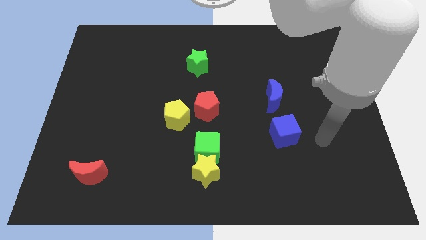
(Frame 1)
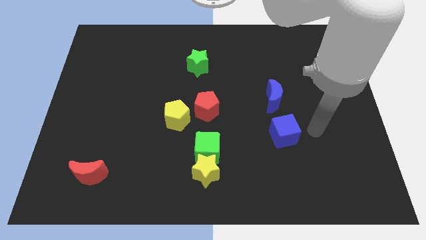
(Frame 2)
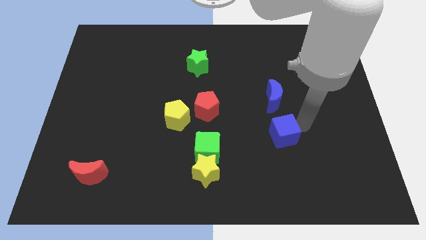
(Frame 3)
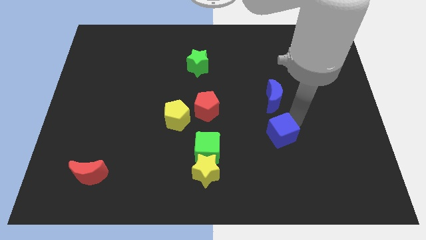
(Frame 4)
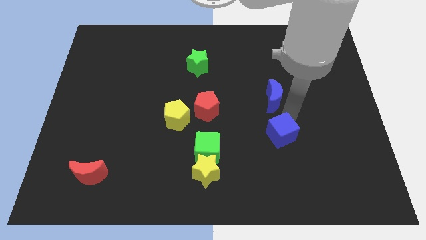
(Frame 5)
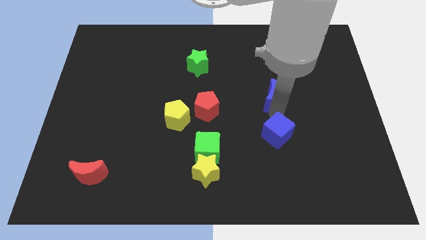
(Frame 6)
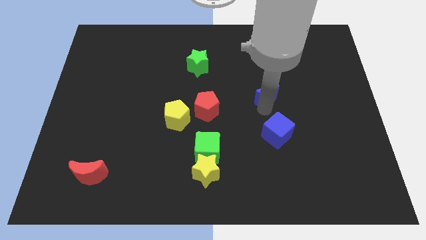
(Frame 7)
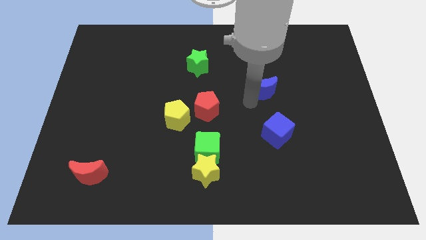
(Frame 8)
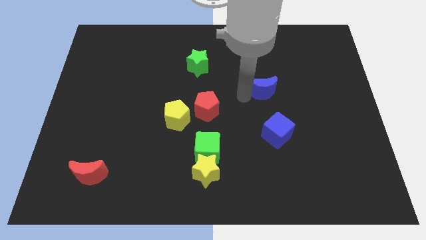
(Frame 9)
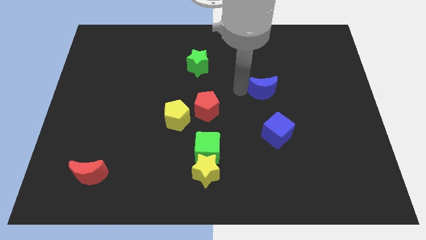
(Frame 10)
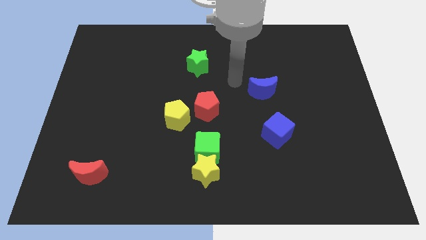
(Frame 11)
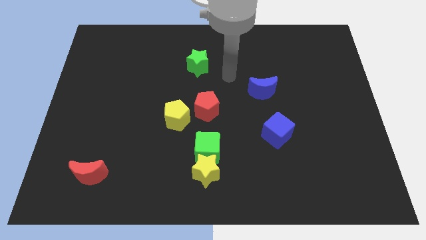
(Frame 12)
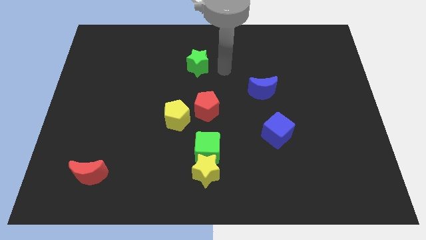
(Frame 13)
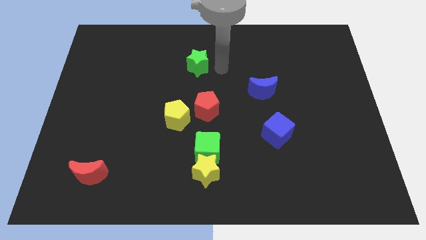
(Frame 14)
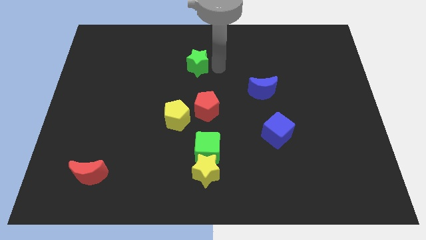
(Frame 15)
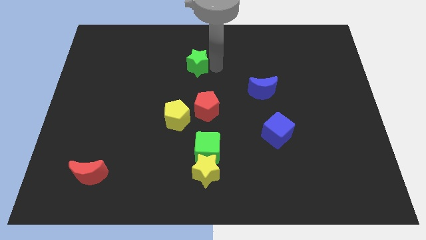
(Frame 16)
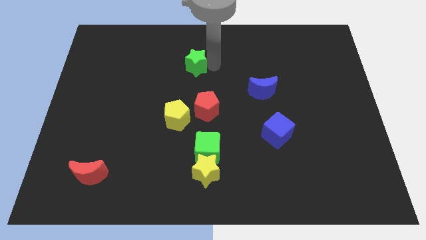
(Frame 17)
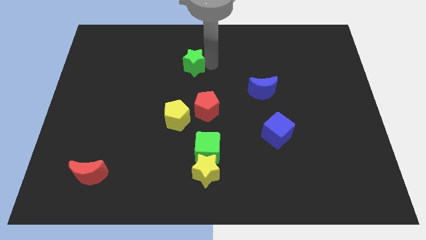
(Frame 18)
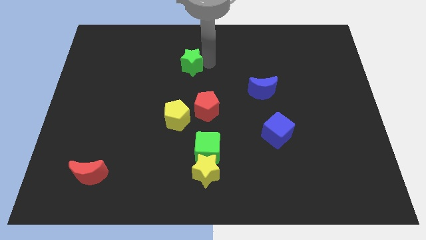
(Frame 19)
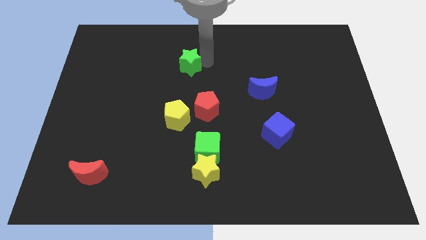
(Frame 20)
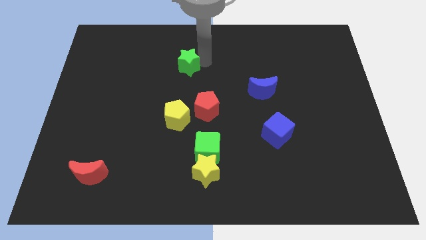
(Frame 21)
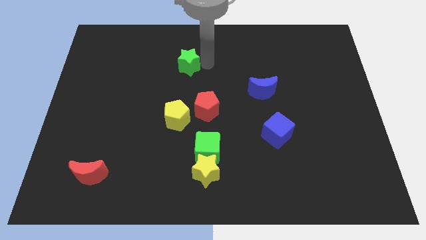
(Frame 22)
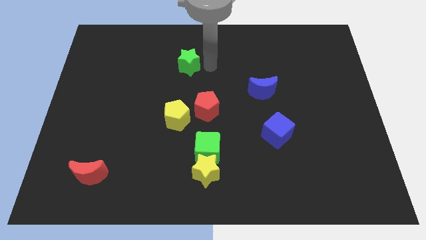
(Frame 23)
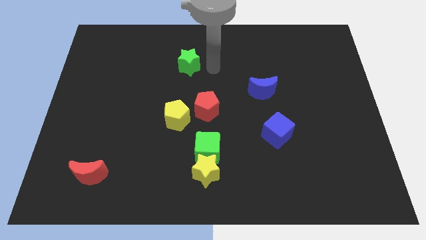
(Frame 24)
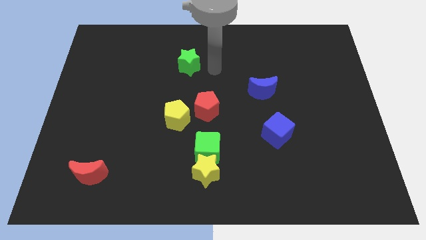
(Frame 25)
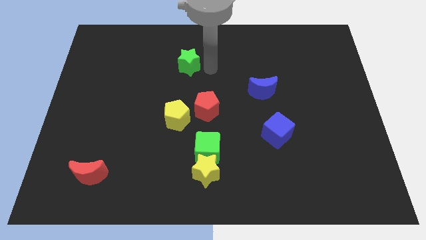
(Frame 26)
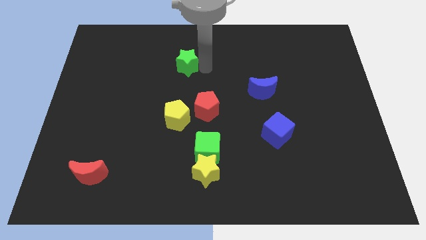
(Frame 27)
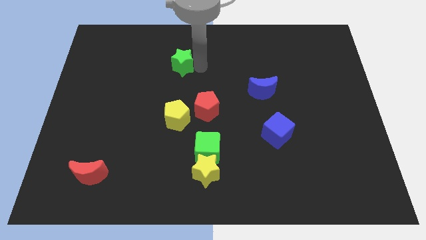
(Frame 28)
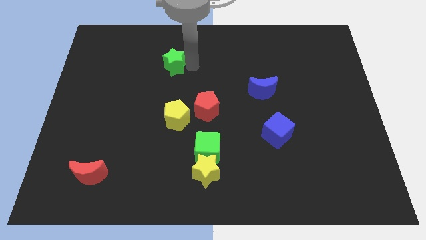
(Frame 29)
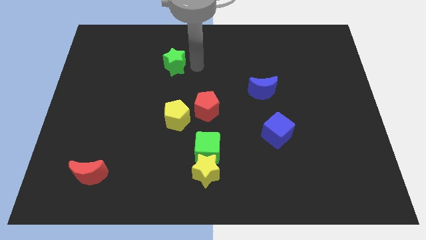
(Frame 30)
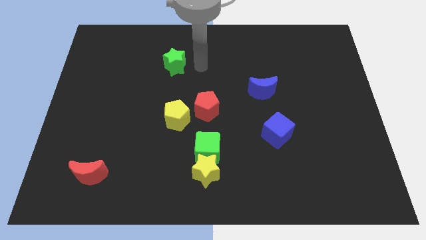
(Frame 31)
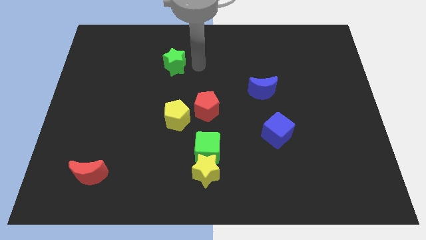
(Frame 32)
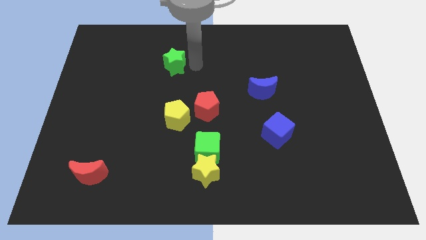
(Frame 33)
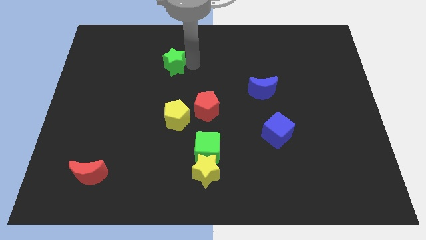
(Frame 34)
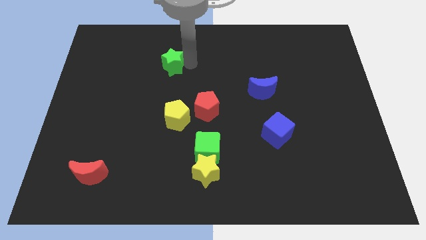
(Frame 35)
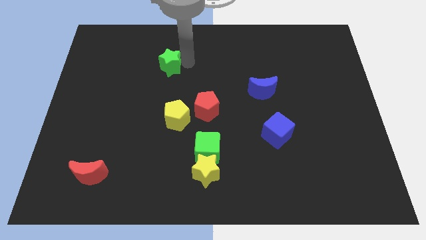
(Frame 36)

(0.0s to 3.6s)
slightly move the green star left

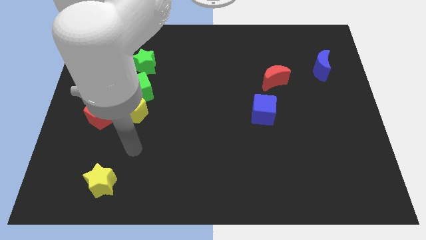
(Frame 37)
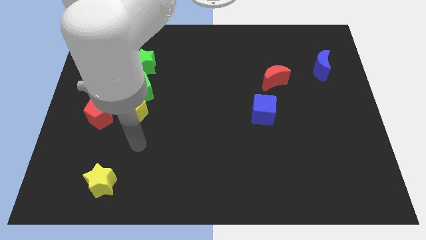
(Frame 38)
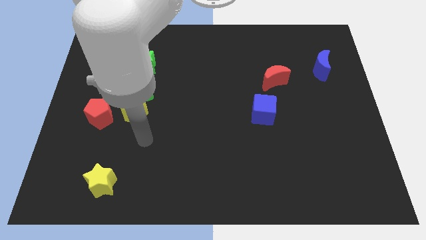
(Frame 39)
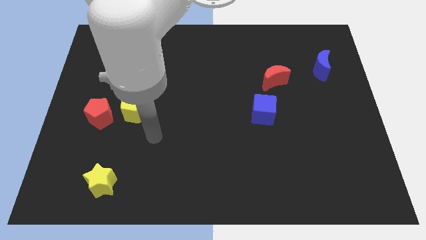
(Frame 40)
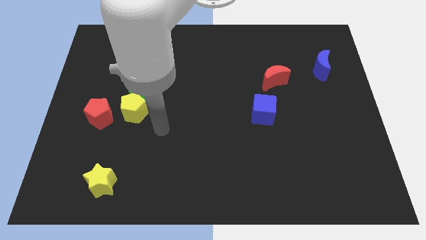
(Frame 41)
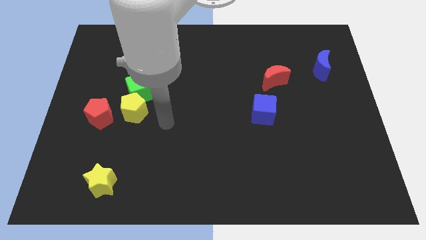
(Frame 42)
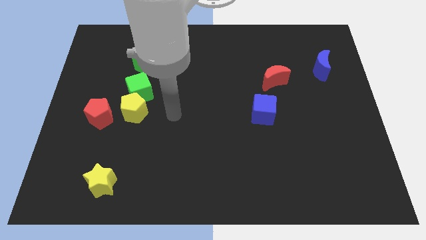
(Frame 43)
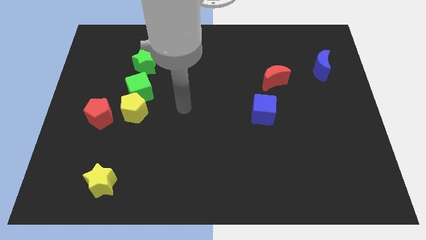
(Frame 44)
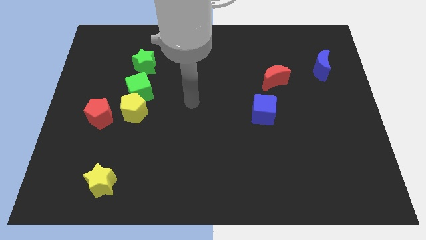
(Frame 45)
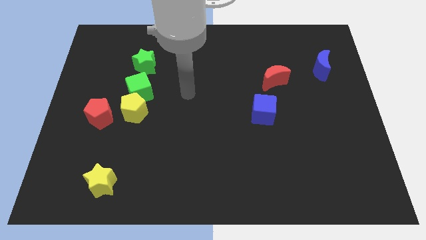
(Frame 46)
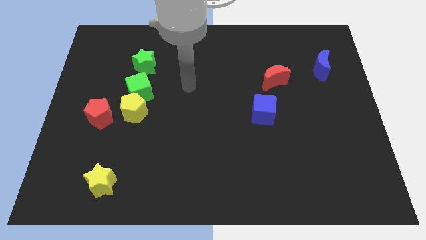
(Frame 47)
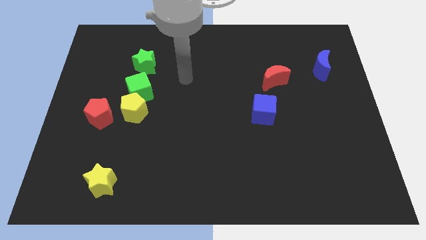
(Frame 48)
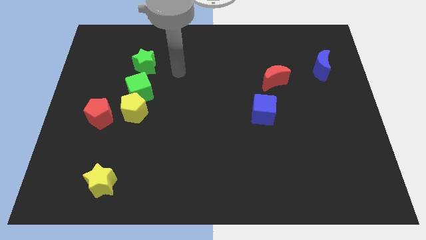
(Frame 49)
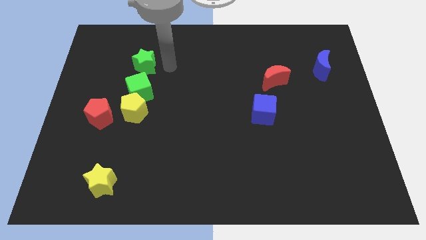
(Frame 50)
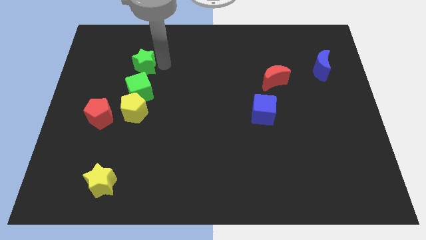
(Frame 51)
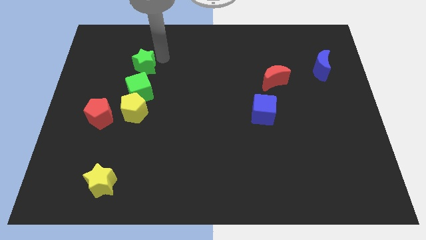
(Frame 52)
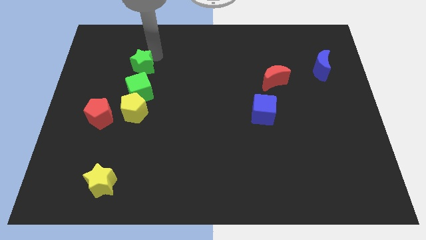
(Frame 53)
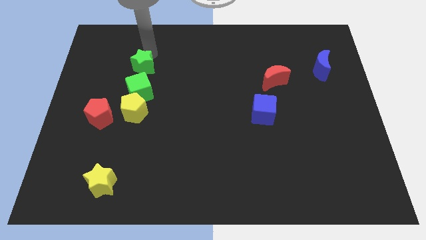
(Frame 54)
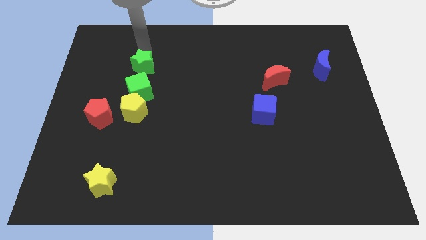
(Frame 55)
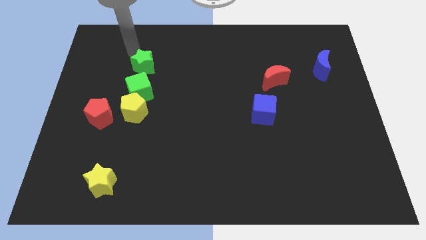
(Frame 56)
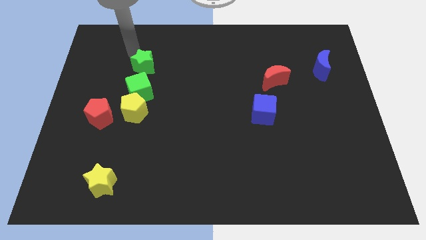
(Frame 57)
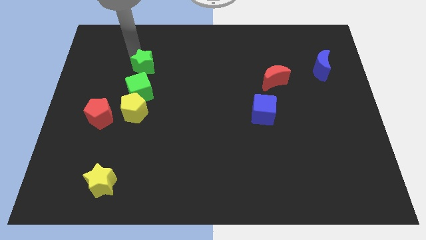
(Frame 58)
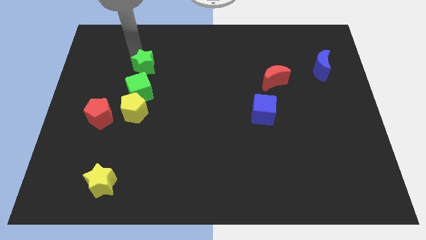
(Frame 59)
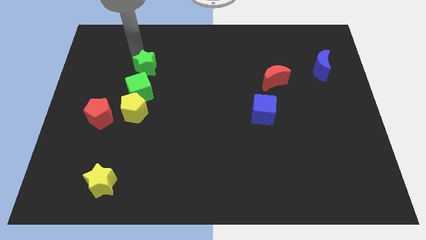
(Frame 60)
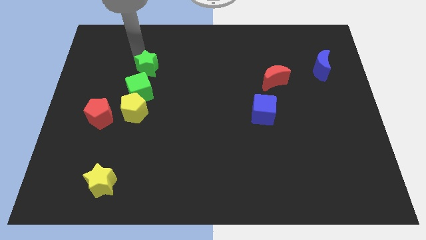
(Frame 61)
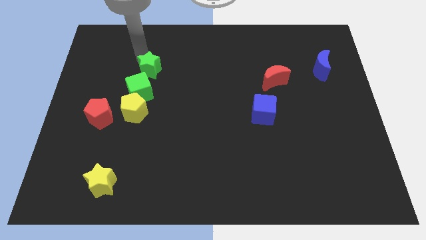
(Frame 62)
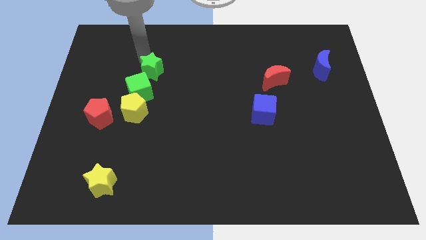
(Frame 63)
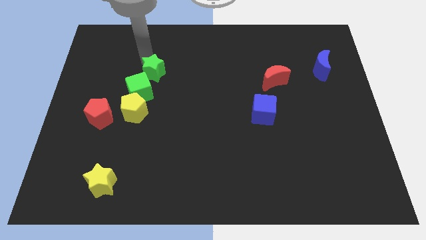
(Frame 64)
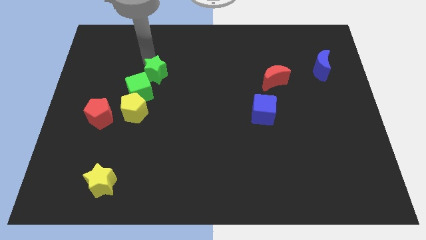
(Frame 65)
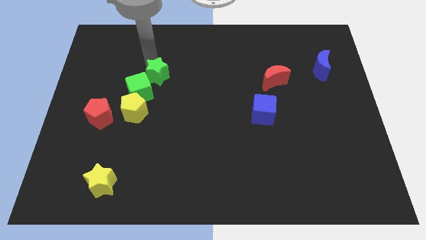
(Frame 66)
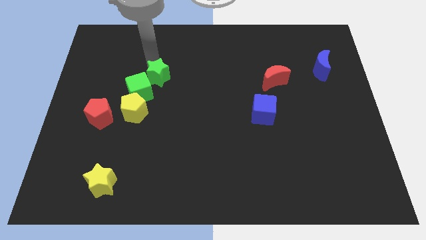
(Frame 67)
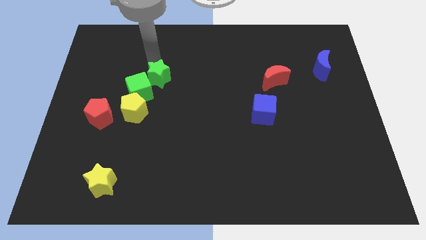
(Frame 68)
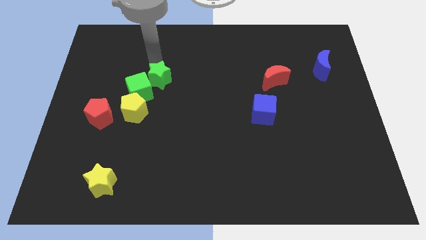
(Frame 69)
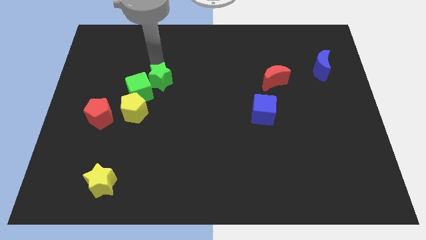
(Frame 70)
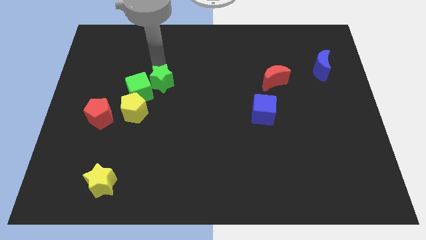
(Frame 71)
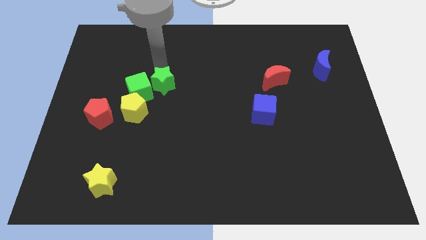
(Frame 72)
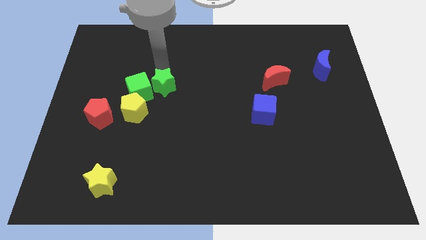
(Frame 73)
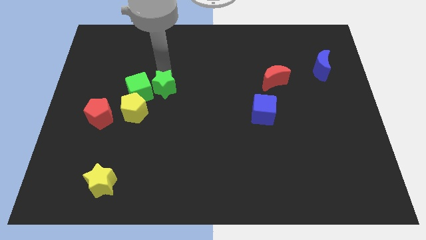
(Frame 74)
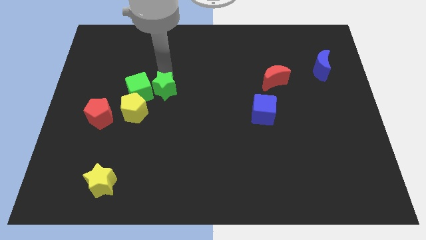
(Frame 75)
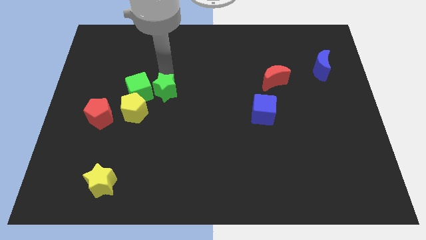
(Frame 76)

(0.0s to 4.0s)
slide the green star downwards slightly

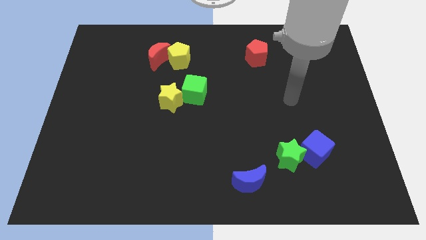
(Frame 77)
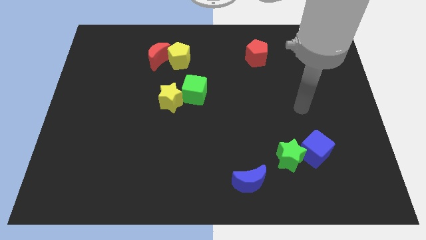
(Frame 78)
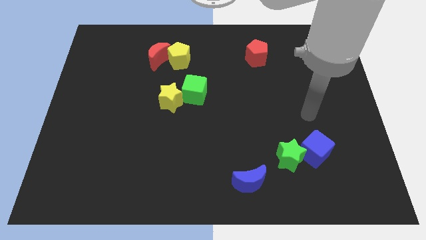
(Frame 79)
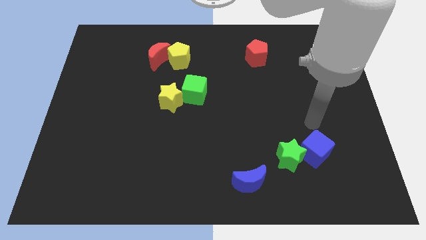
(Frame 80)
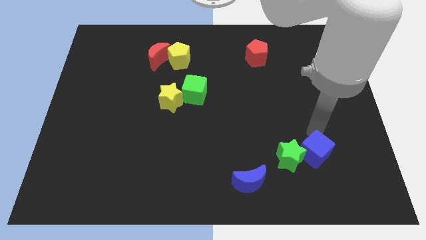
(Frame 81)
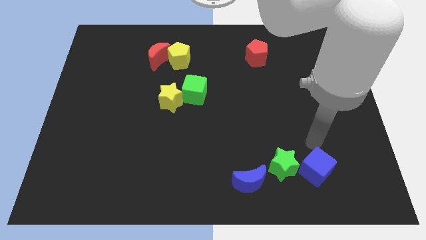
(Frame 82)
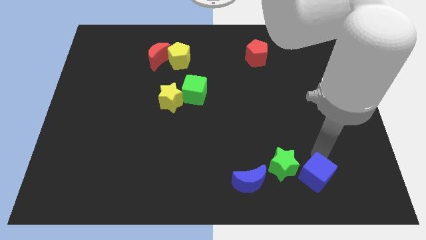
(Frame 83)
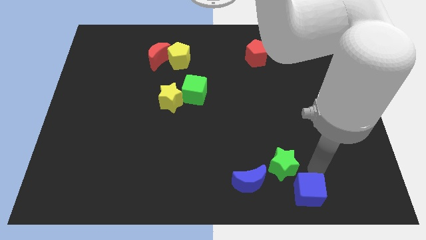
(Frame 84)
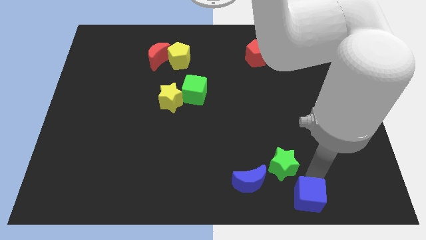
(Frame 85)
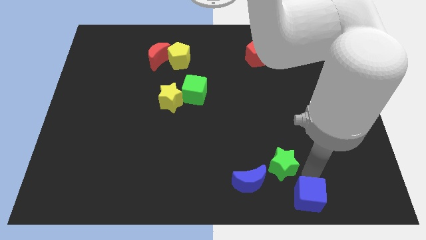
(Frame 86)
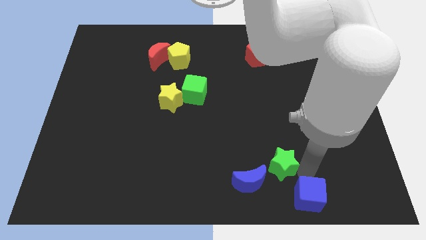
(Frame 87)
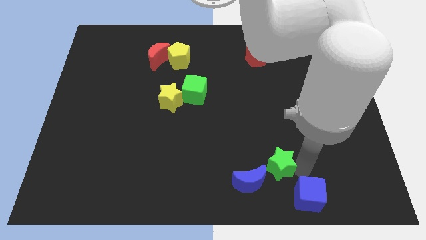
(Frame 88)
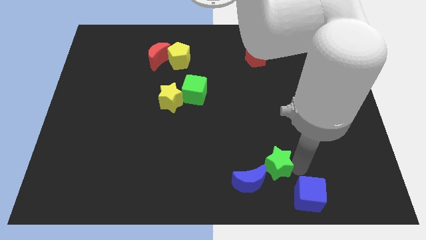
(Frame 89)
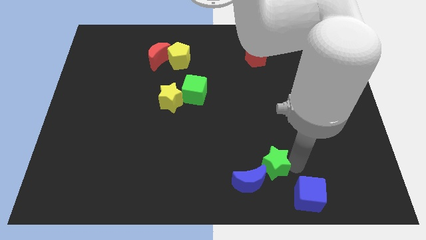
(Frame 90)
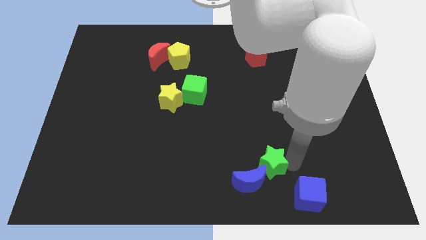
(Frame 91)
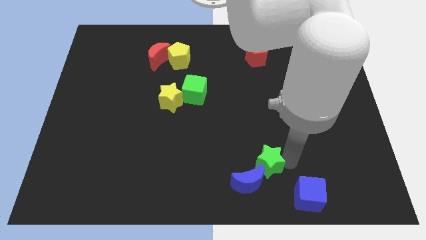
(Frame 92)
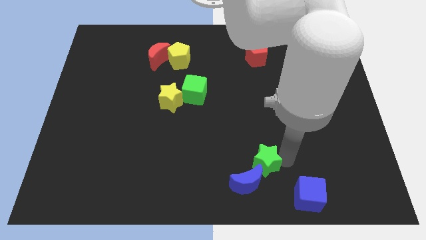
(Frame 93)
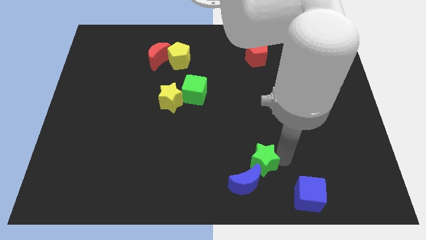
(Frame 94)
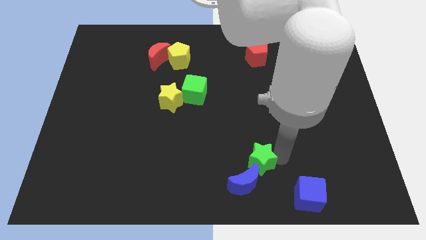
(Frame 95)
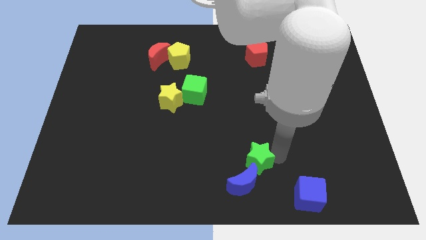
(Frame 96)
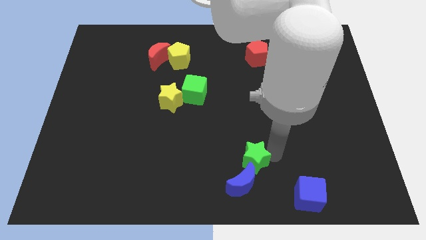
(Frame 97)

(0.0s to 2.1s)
push the green star left a little
